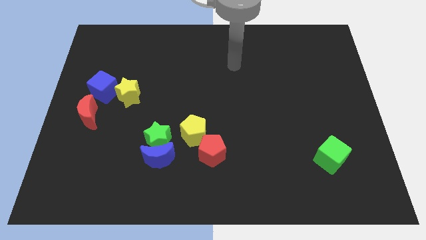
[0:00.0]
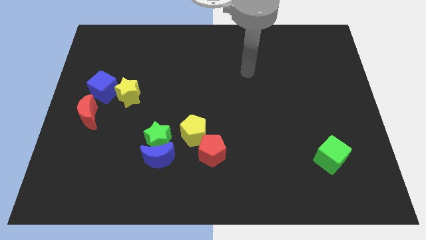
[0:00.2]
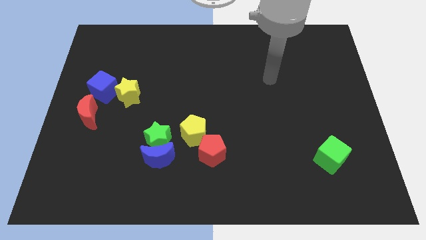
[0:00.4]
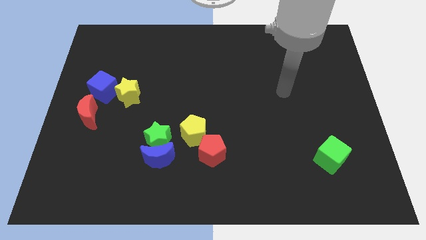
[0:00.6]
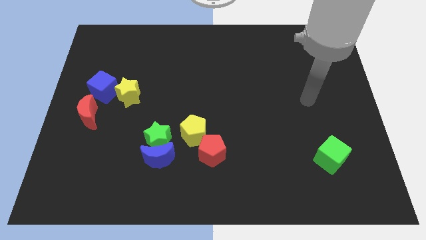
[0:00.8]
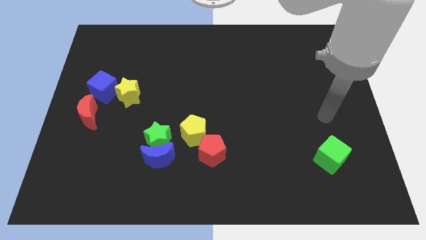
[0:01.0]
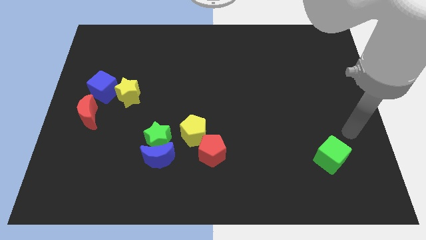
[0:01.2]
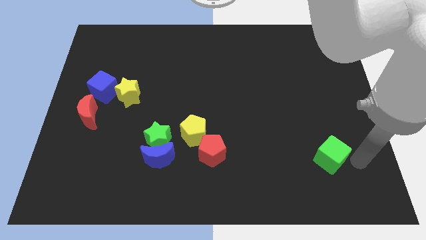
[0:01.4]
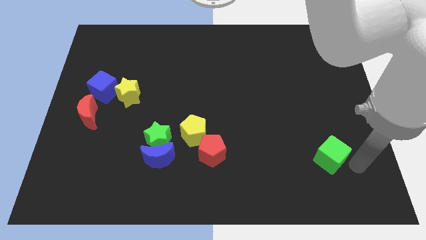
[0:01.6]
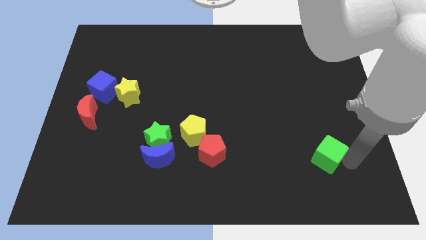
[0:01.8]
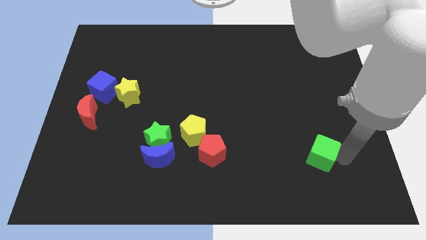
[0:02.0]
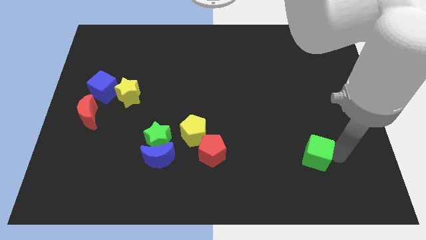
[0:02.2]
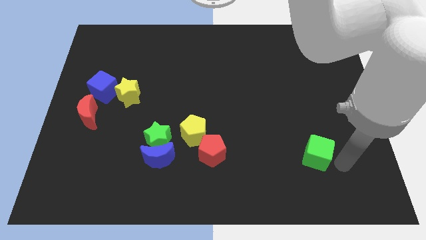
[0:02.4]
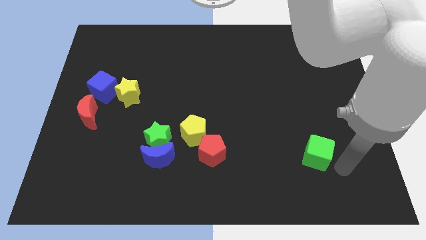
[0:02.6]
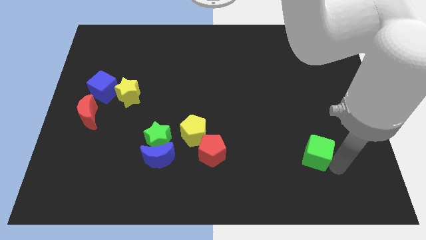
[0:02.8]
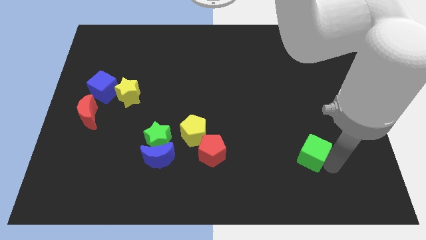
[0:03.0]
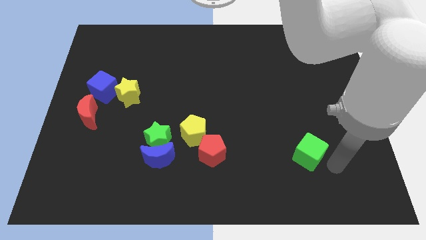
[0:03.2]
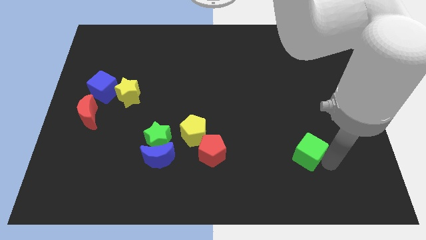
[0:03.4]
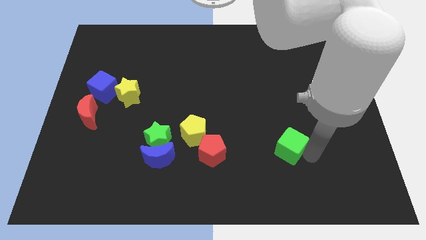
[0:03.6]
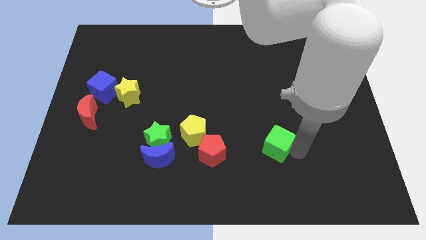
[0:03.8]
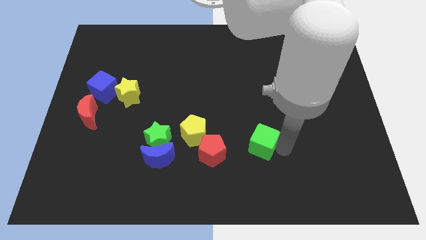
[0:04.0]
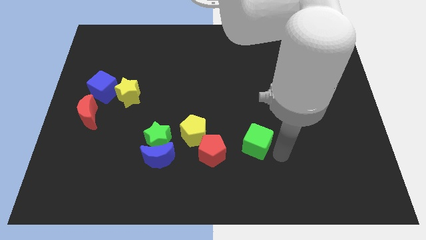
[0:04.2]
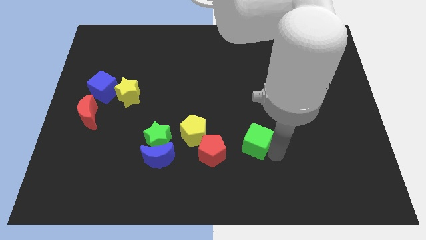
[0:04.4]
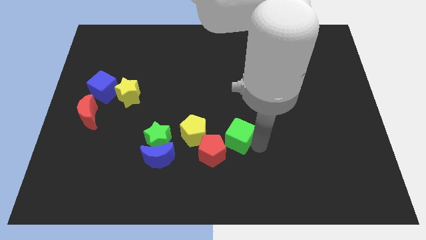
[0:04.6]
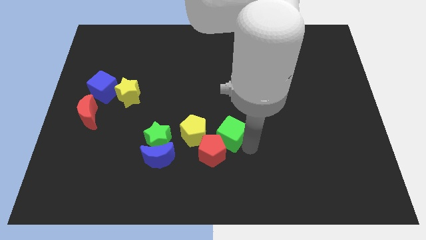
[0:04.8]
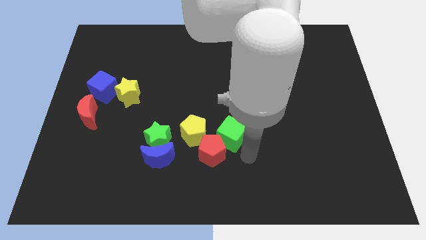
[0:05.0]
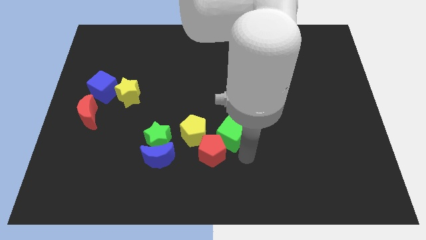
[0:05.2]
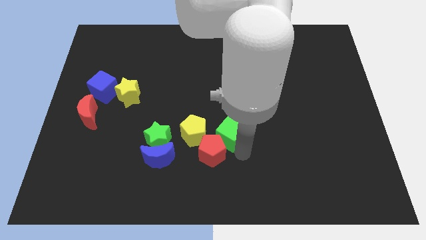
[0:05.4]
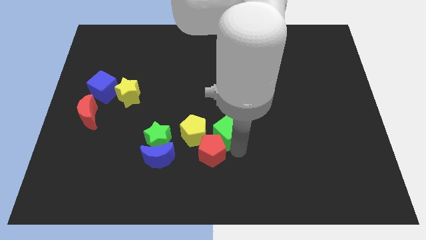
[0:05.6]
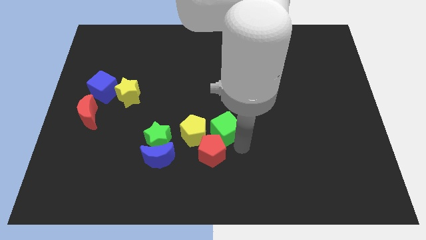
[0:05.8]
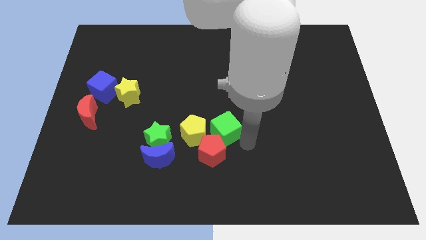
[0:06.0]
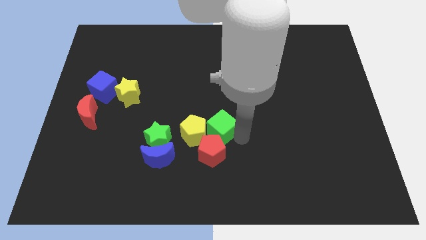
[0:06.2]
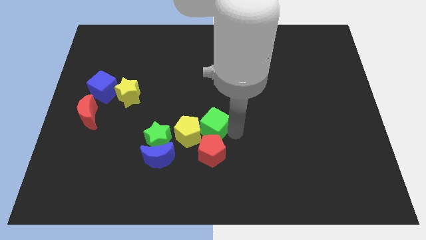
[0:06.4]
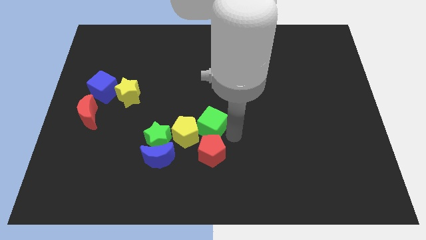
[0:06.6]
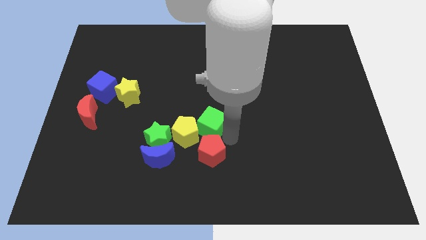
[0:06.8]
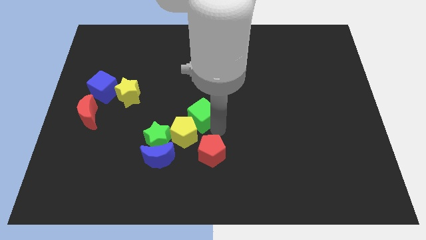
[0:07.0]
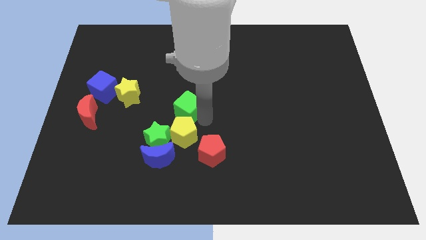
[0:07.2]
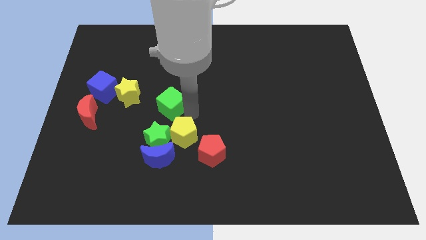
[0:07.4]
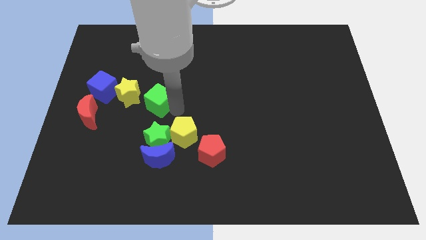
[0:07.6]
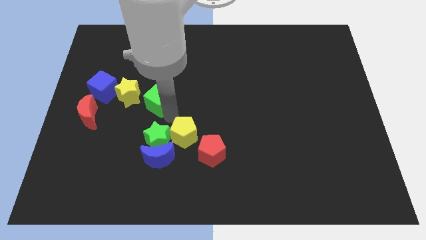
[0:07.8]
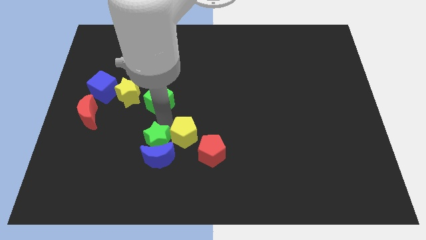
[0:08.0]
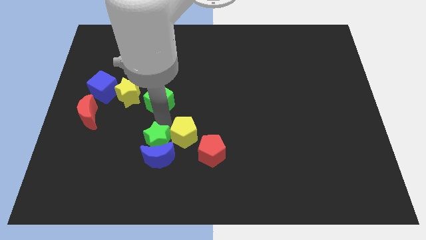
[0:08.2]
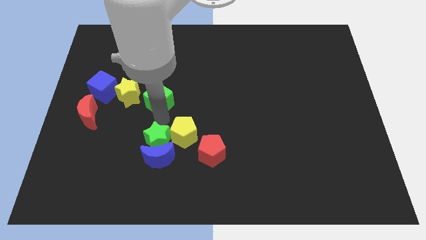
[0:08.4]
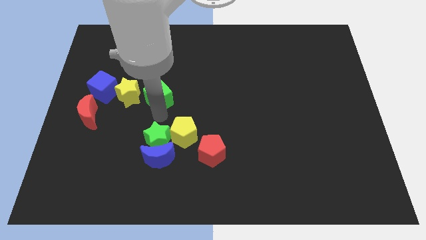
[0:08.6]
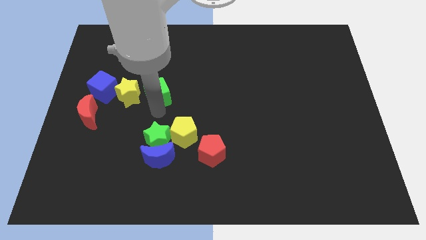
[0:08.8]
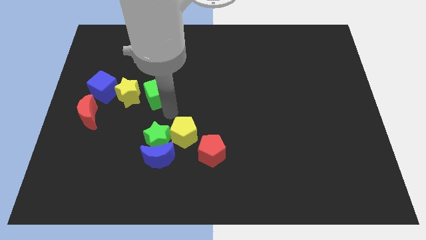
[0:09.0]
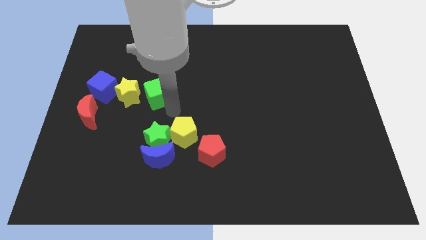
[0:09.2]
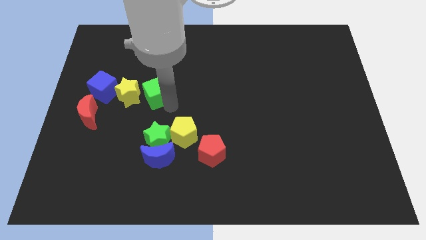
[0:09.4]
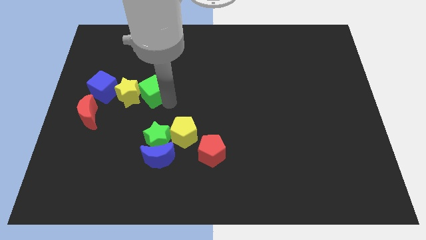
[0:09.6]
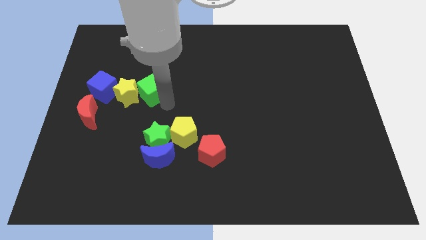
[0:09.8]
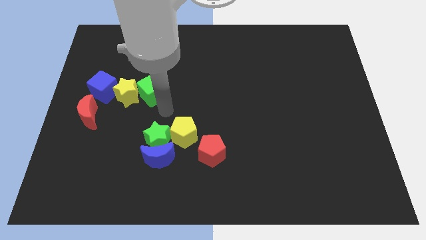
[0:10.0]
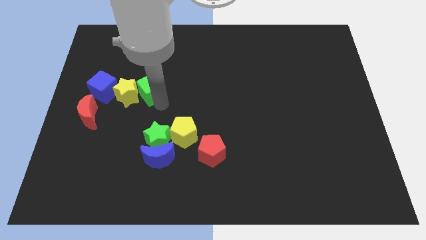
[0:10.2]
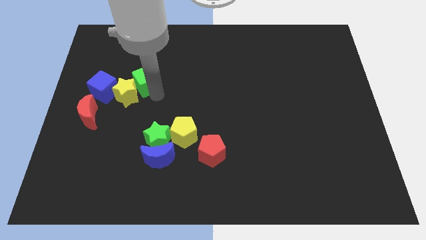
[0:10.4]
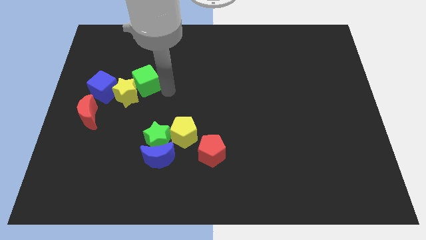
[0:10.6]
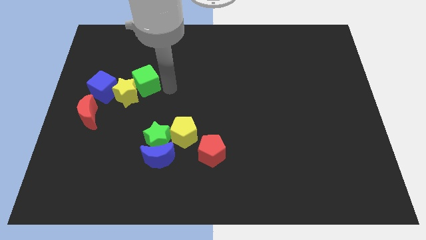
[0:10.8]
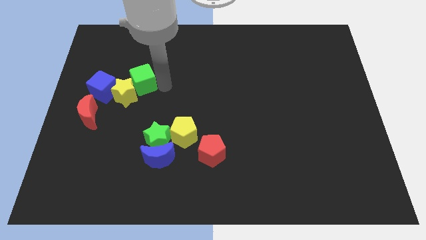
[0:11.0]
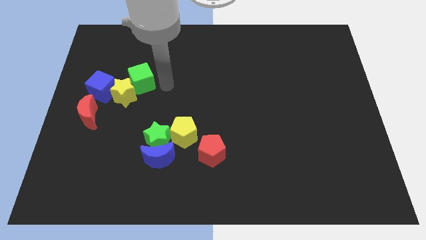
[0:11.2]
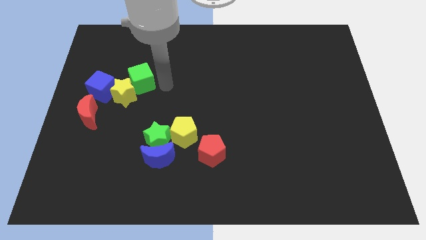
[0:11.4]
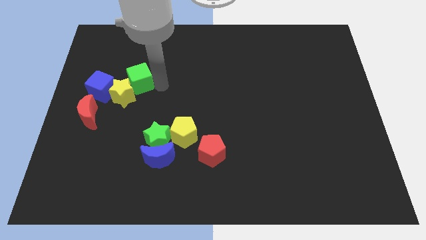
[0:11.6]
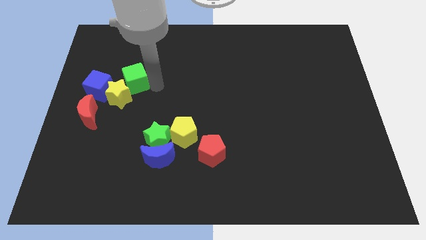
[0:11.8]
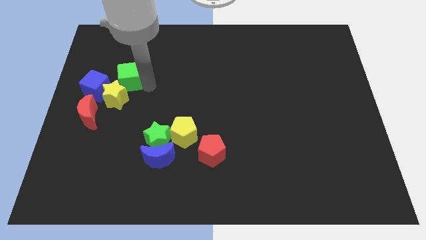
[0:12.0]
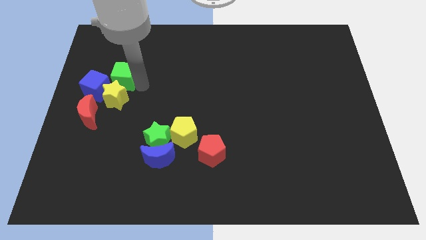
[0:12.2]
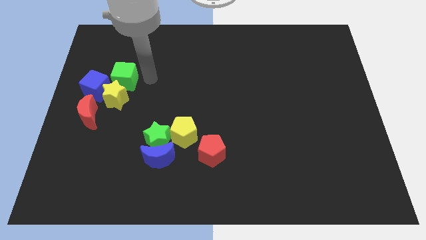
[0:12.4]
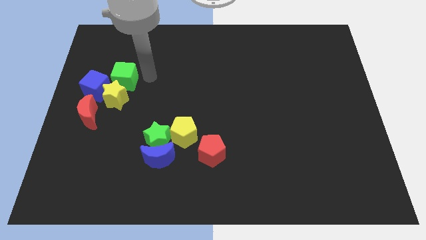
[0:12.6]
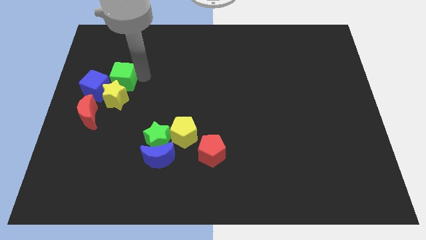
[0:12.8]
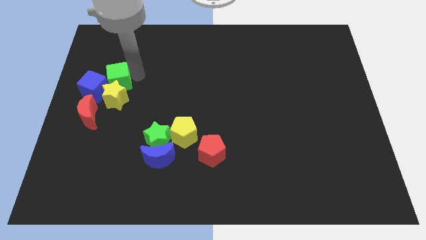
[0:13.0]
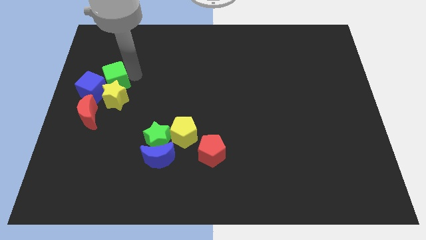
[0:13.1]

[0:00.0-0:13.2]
push the green cube to the top of the red moon

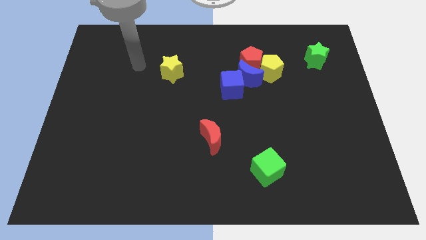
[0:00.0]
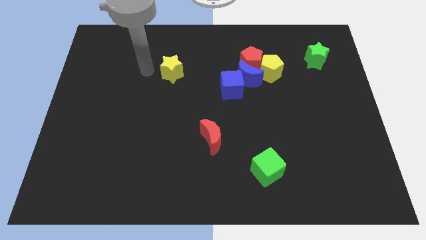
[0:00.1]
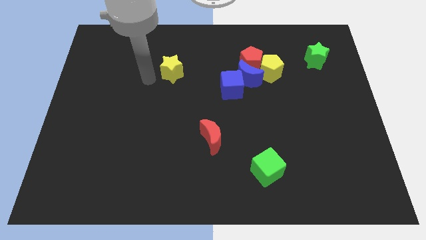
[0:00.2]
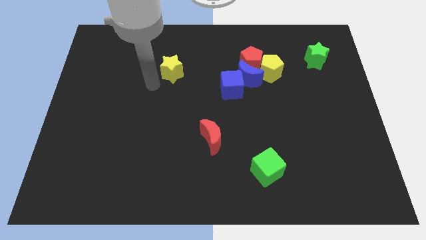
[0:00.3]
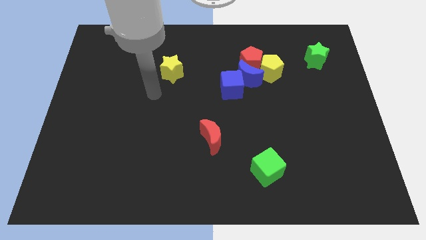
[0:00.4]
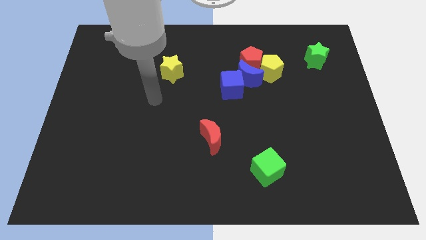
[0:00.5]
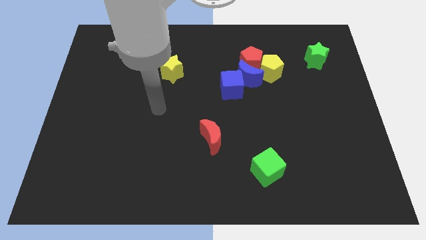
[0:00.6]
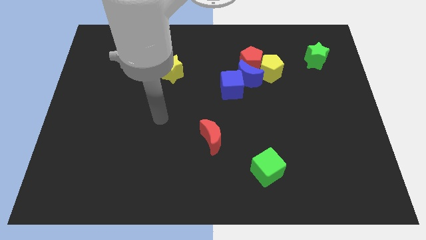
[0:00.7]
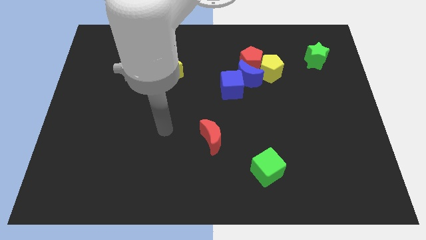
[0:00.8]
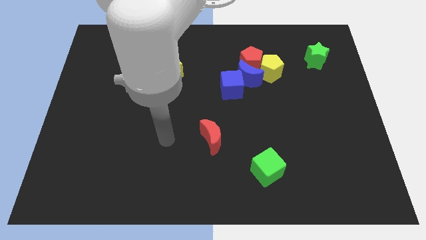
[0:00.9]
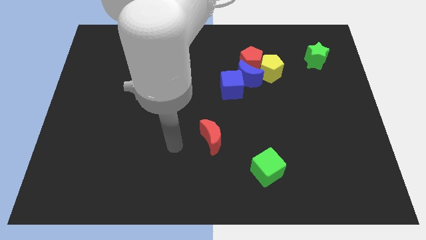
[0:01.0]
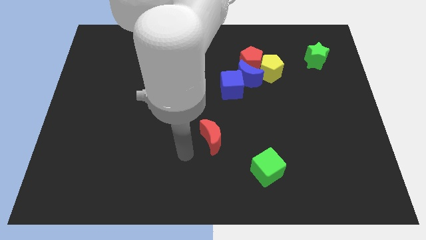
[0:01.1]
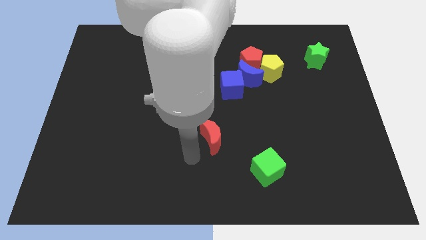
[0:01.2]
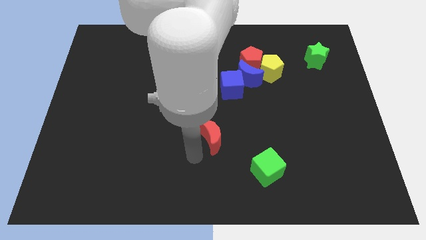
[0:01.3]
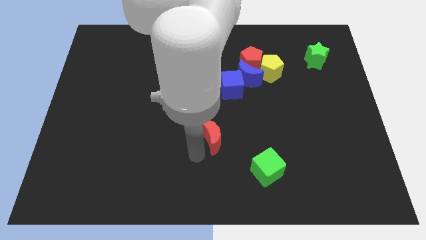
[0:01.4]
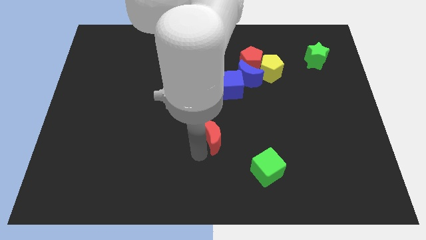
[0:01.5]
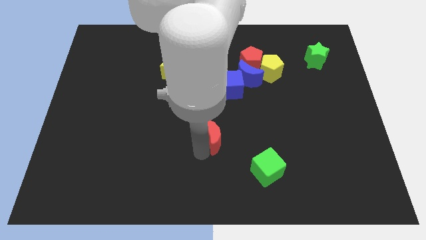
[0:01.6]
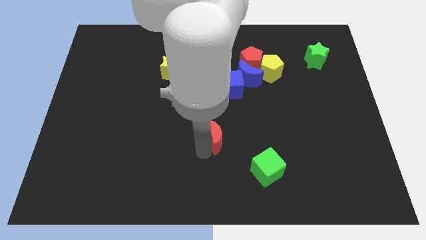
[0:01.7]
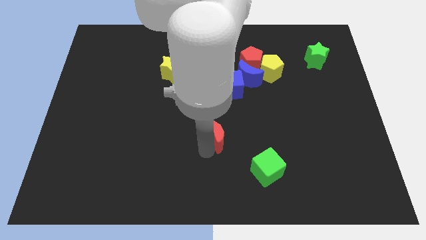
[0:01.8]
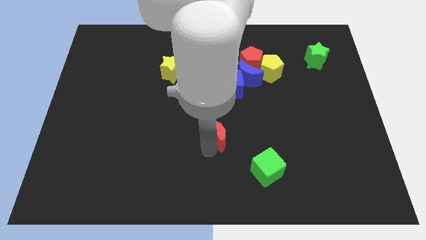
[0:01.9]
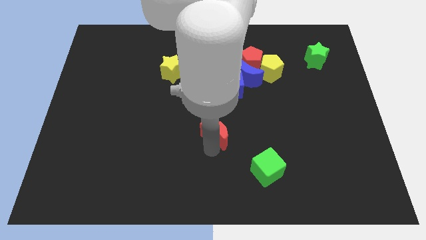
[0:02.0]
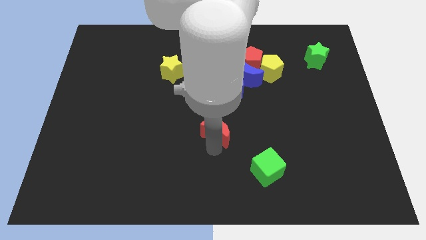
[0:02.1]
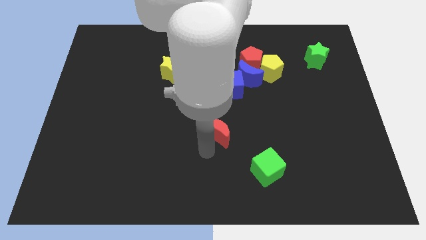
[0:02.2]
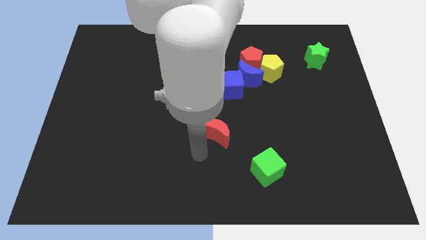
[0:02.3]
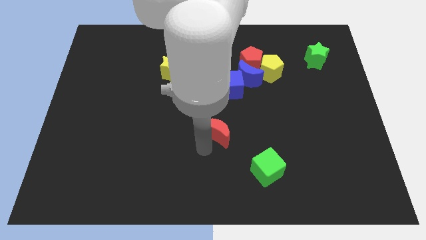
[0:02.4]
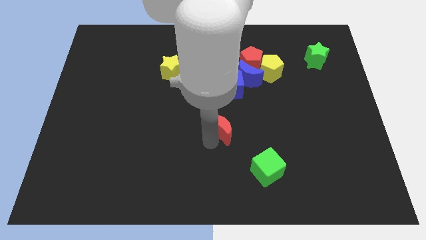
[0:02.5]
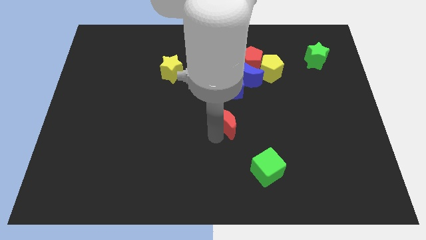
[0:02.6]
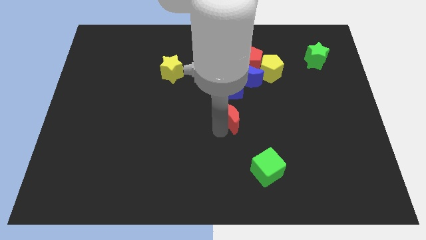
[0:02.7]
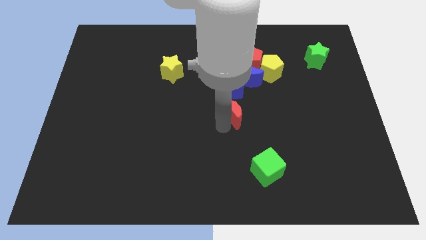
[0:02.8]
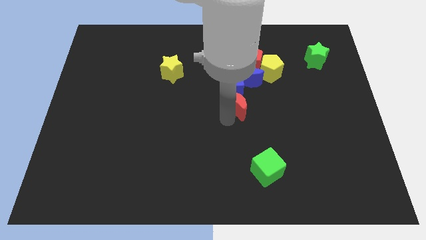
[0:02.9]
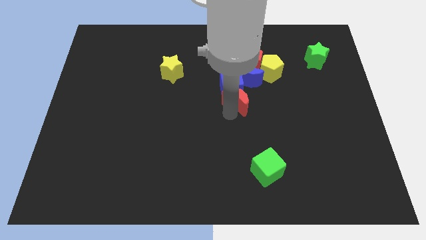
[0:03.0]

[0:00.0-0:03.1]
push the red moon to the bottom of the red pentagon
